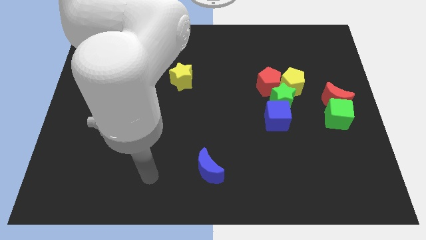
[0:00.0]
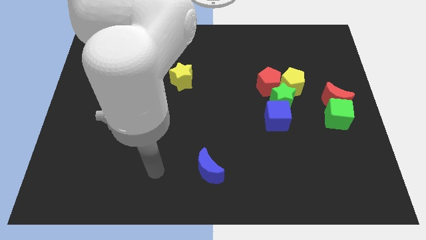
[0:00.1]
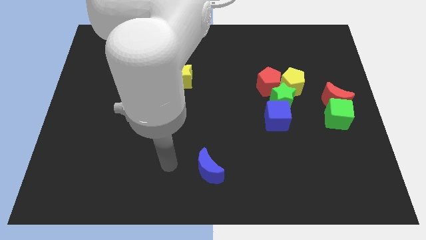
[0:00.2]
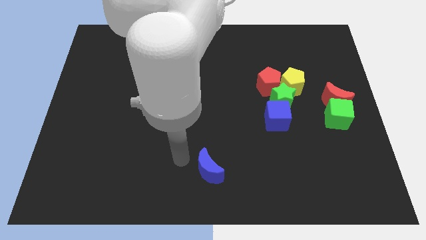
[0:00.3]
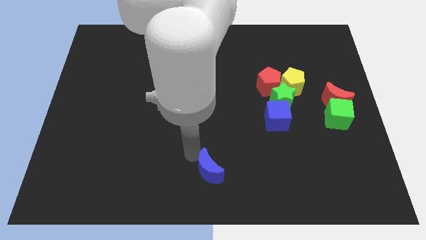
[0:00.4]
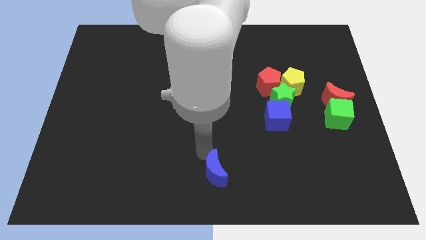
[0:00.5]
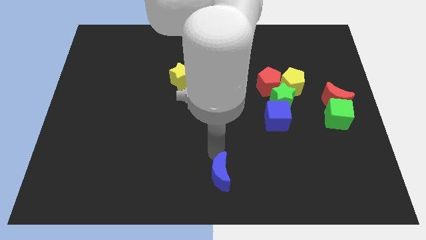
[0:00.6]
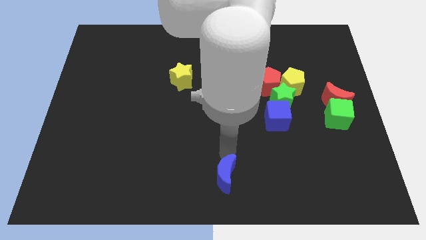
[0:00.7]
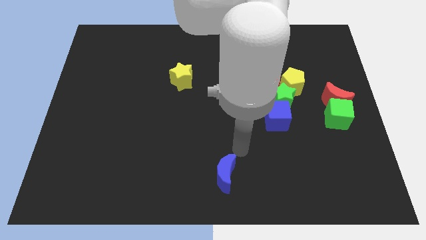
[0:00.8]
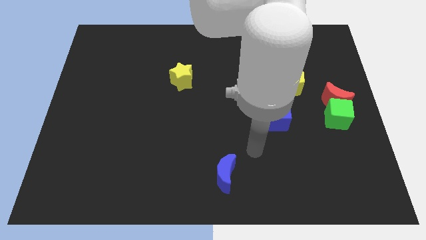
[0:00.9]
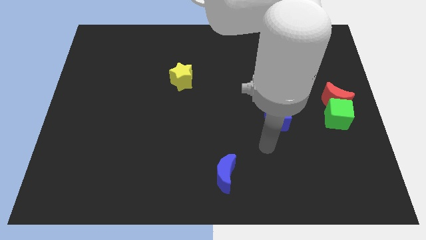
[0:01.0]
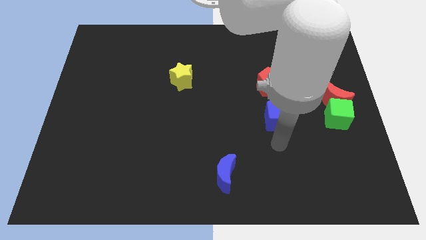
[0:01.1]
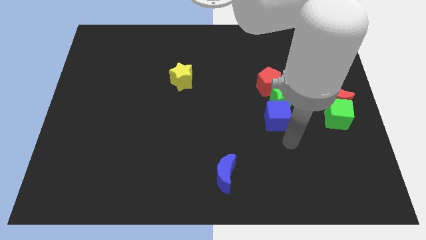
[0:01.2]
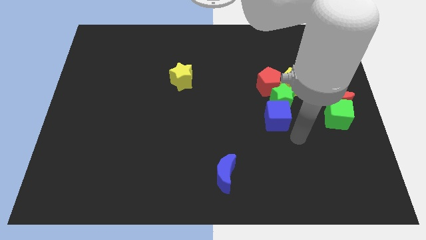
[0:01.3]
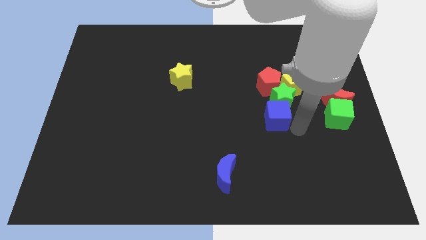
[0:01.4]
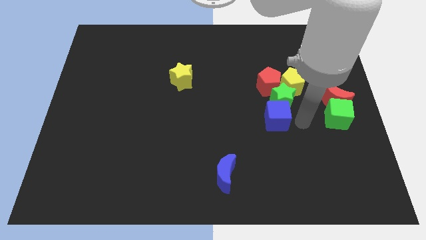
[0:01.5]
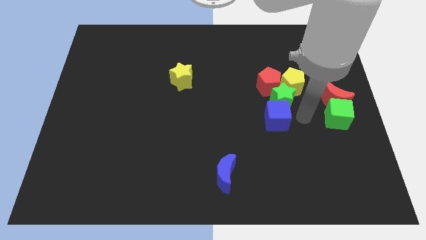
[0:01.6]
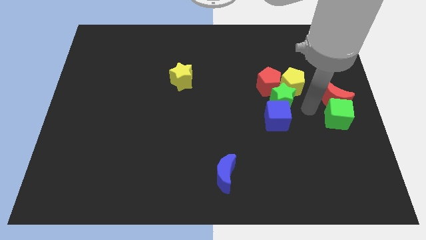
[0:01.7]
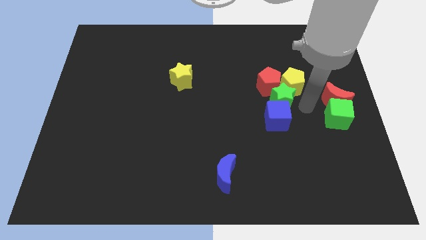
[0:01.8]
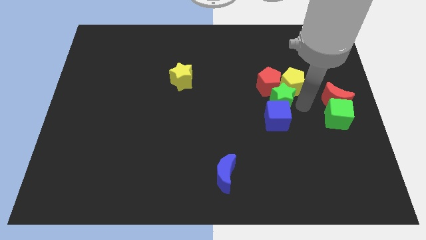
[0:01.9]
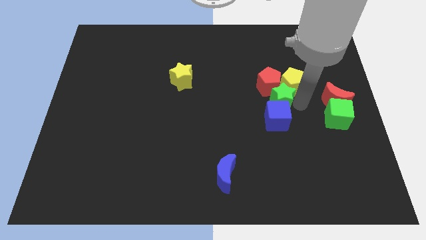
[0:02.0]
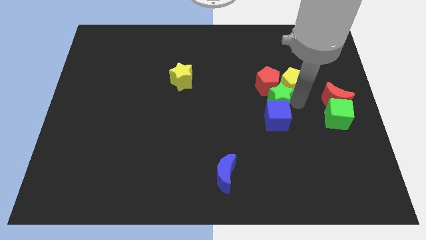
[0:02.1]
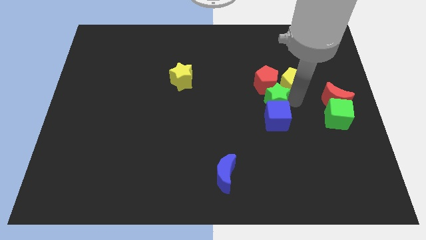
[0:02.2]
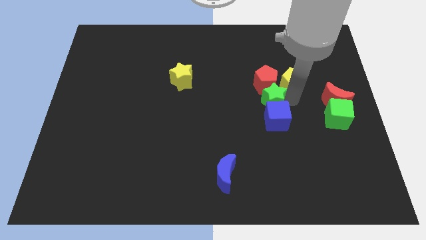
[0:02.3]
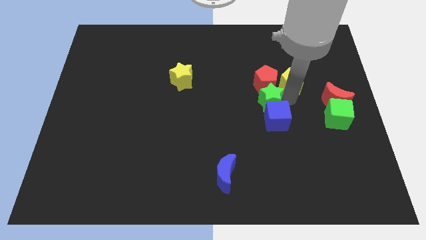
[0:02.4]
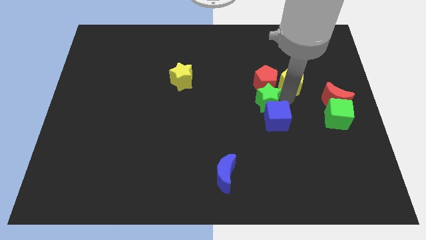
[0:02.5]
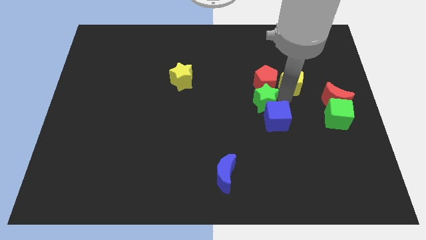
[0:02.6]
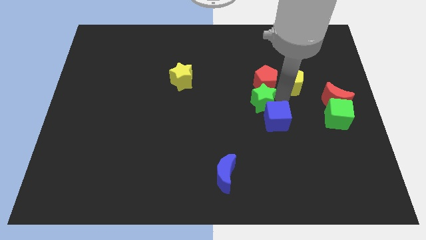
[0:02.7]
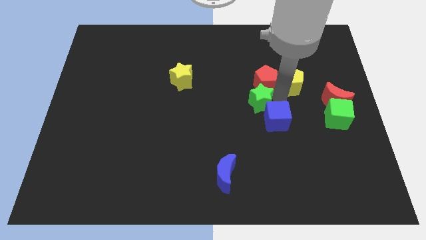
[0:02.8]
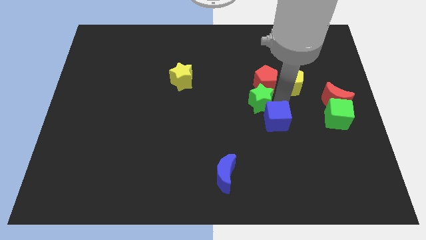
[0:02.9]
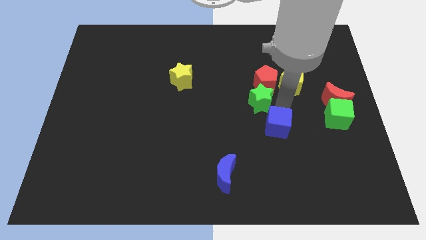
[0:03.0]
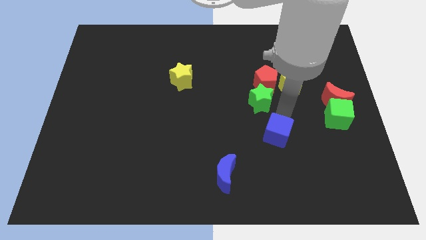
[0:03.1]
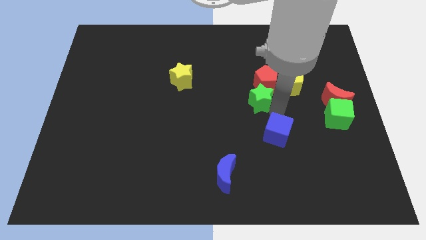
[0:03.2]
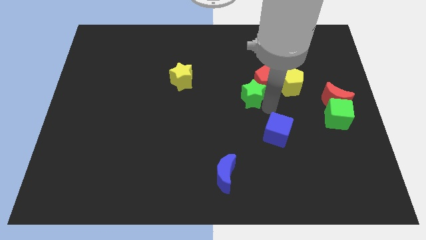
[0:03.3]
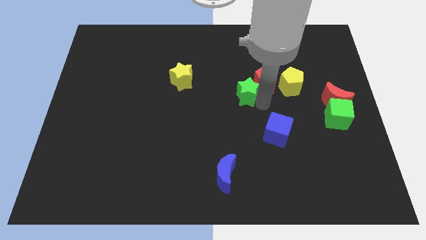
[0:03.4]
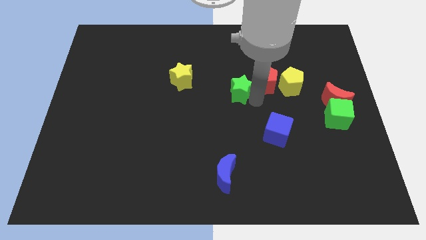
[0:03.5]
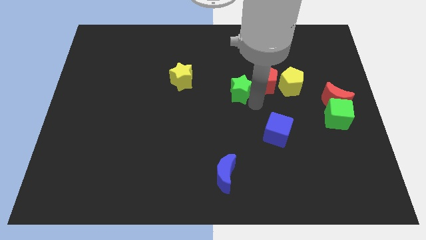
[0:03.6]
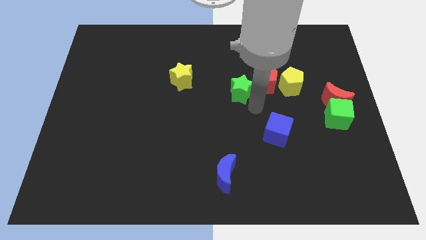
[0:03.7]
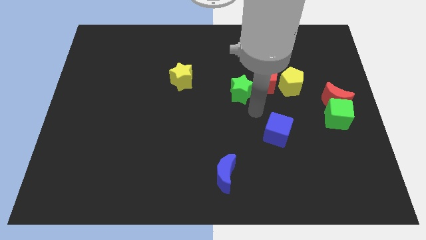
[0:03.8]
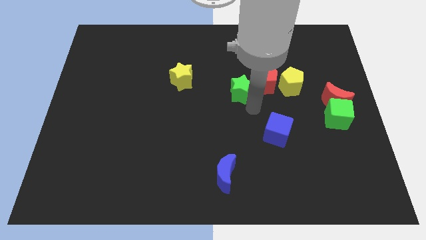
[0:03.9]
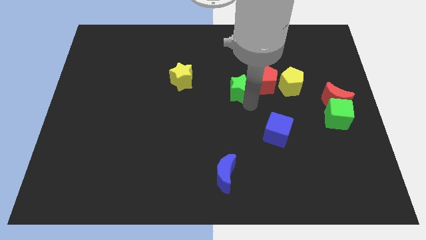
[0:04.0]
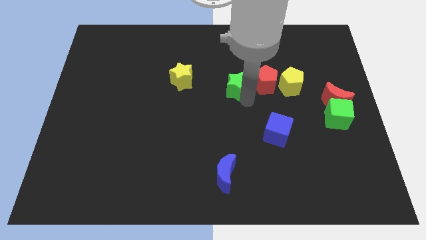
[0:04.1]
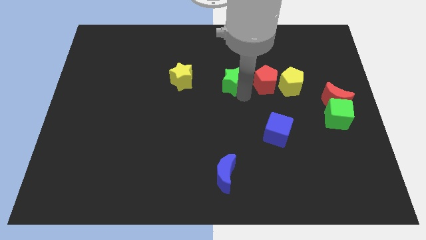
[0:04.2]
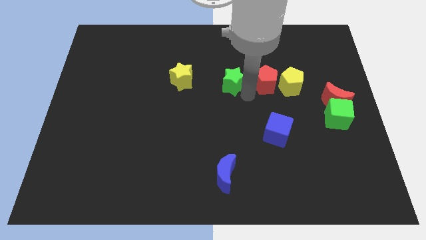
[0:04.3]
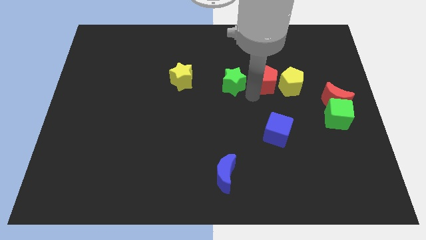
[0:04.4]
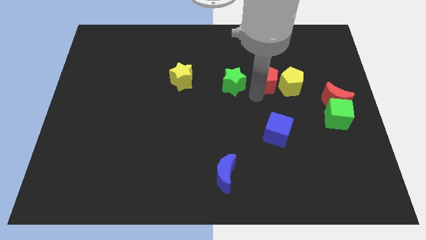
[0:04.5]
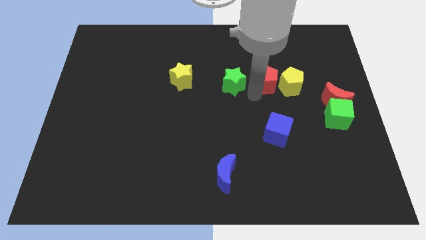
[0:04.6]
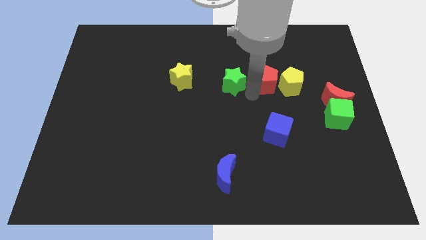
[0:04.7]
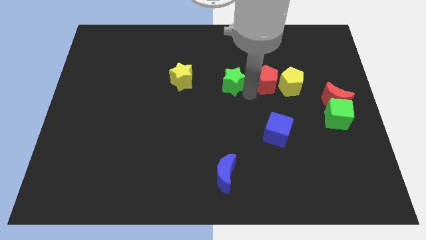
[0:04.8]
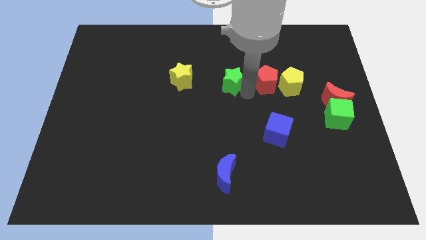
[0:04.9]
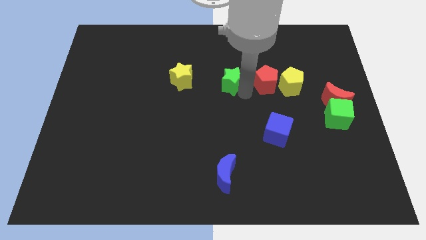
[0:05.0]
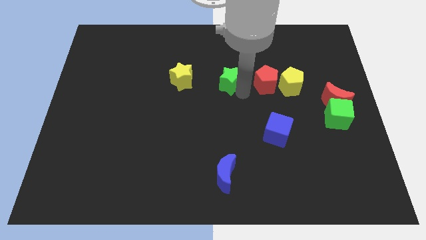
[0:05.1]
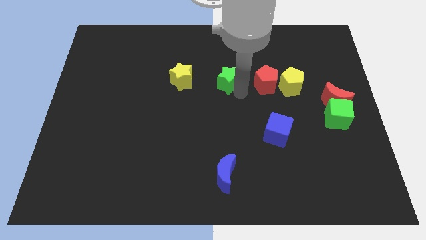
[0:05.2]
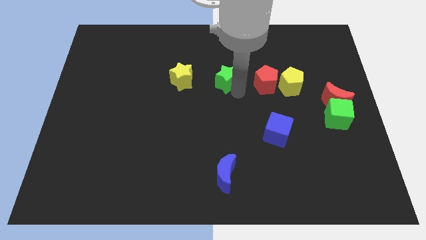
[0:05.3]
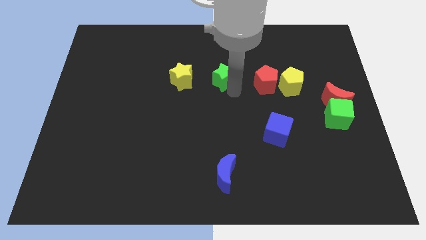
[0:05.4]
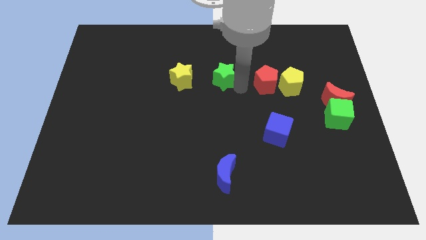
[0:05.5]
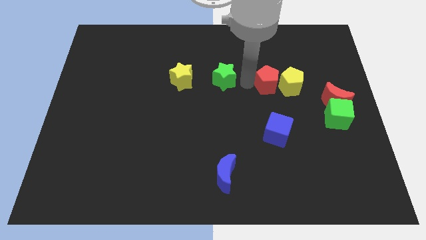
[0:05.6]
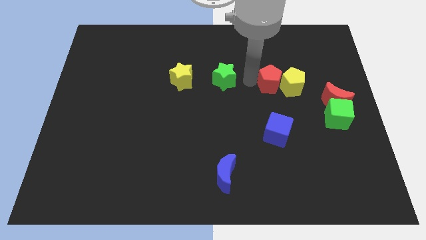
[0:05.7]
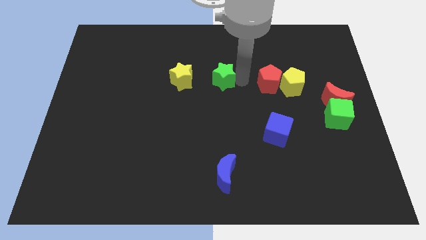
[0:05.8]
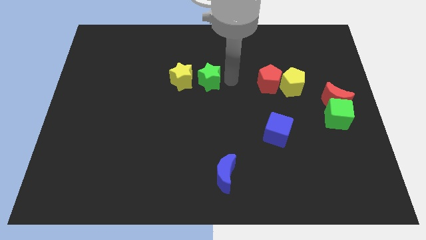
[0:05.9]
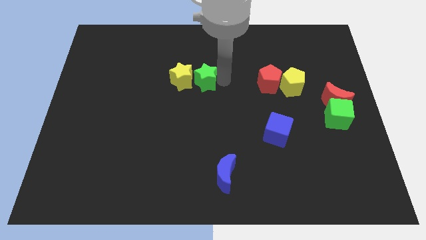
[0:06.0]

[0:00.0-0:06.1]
push the green star next to the yellow star
